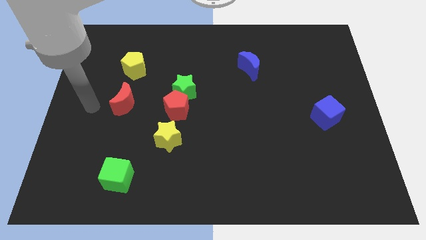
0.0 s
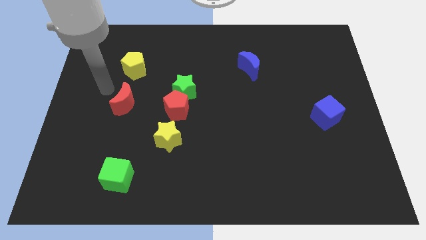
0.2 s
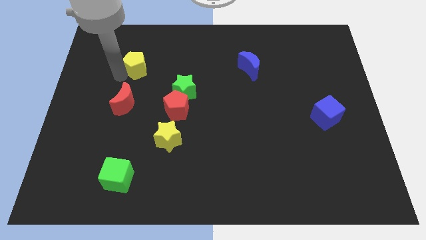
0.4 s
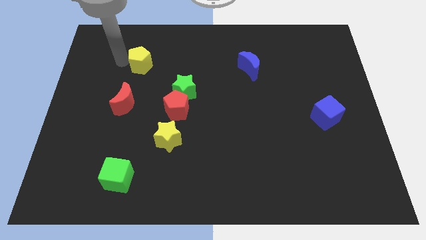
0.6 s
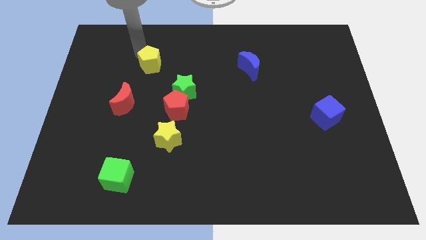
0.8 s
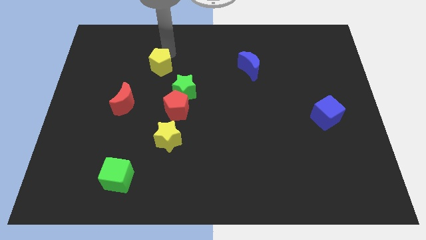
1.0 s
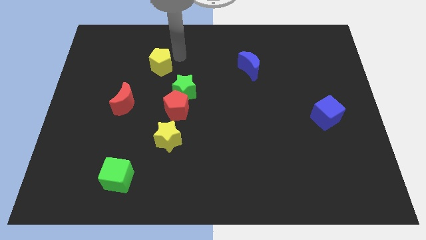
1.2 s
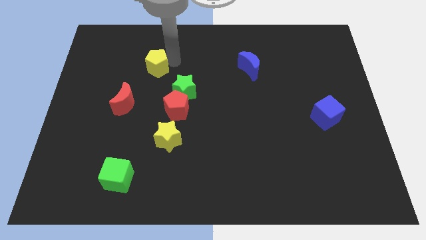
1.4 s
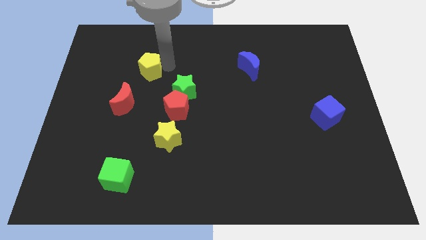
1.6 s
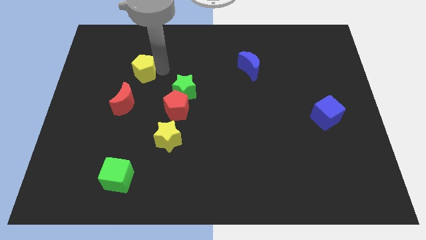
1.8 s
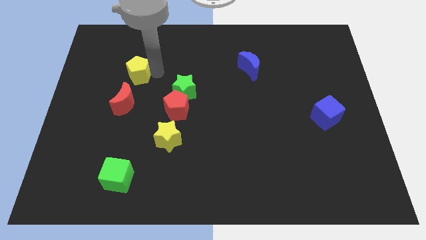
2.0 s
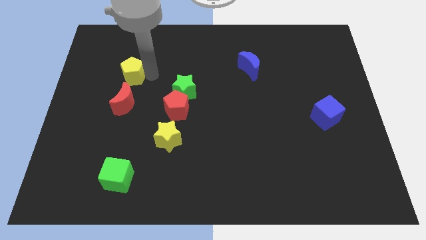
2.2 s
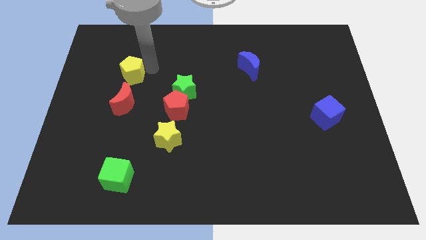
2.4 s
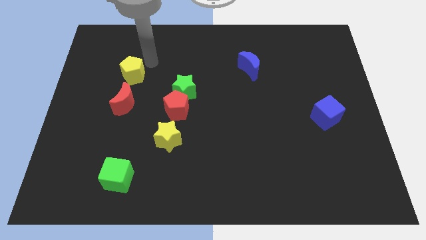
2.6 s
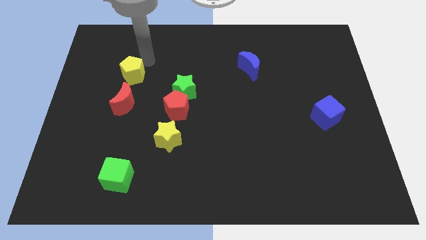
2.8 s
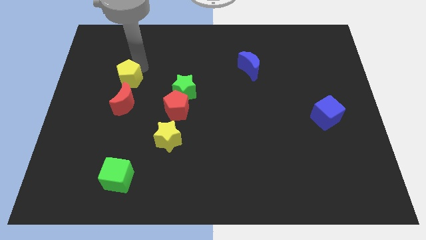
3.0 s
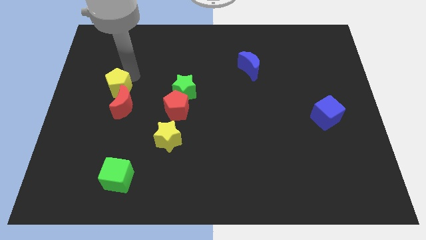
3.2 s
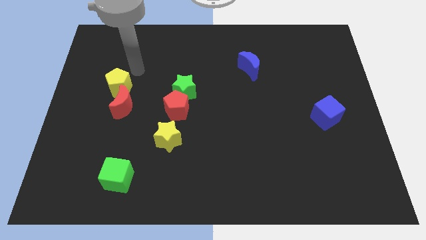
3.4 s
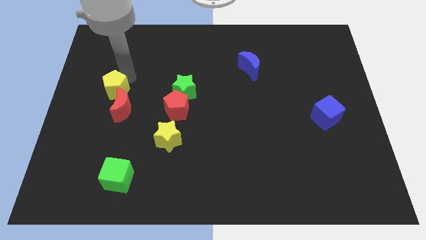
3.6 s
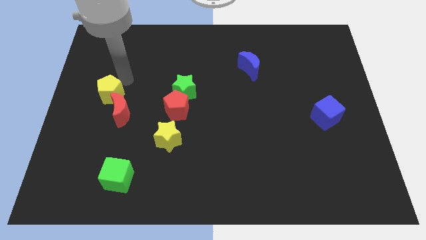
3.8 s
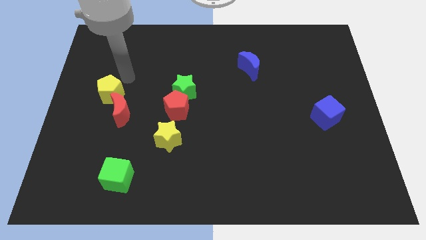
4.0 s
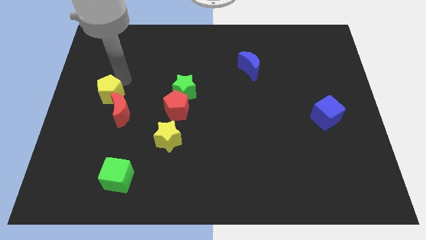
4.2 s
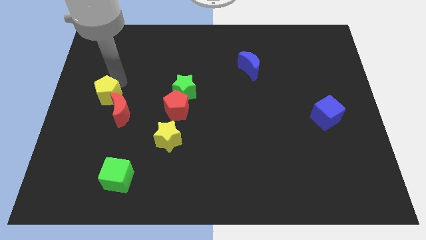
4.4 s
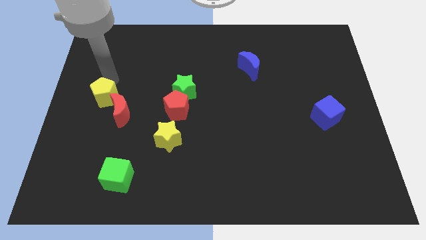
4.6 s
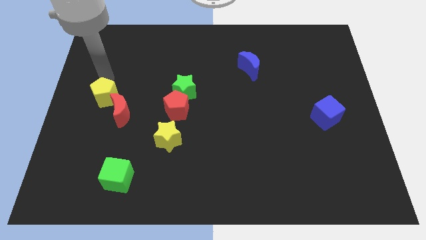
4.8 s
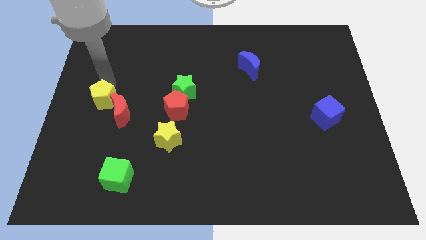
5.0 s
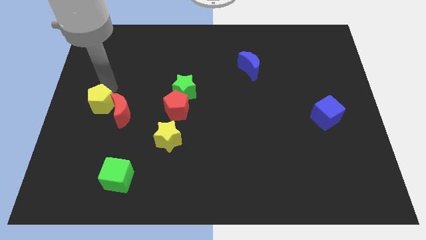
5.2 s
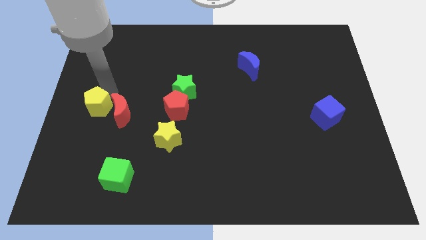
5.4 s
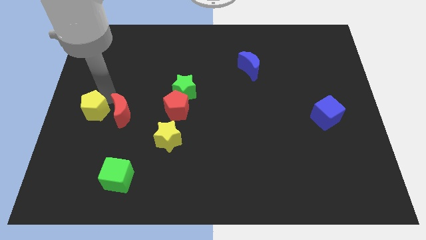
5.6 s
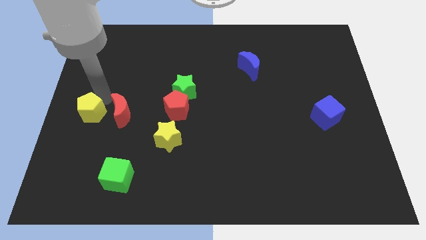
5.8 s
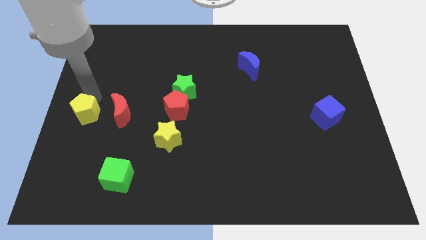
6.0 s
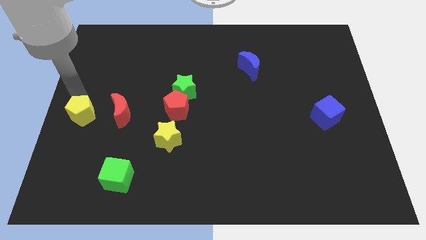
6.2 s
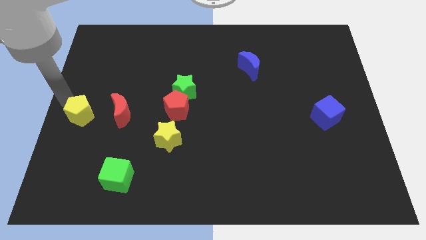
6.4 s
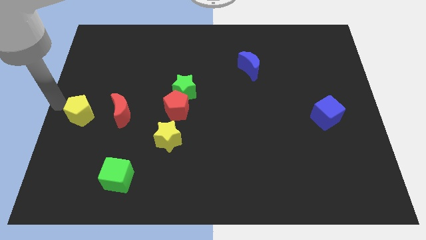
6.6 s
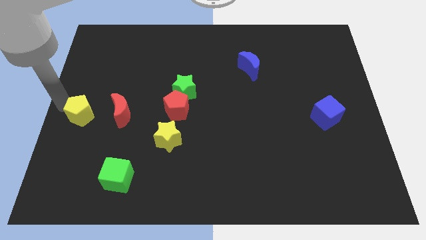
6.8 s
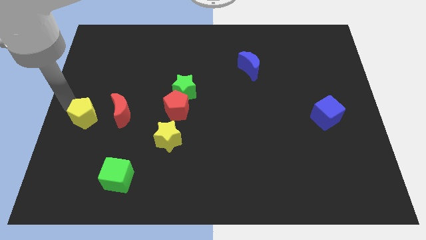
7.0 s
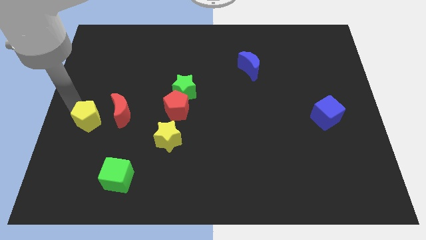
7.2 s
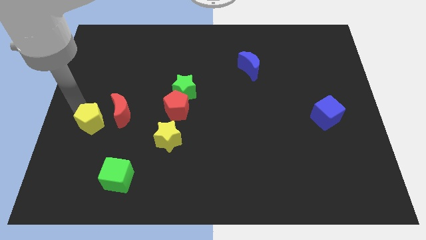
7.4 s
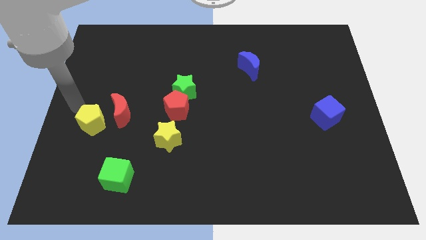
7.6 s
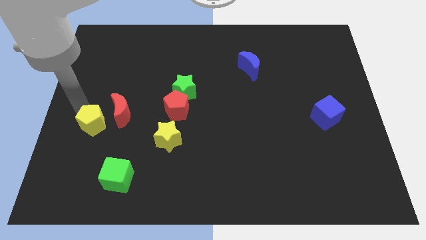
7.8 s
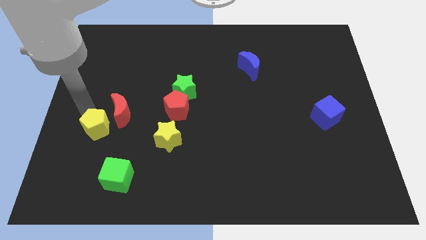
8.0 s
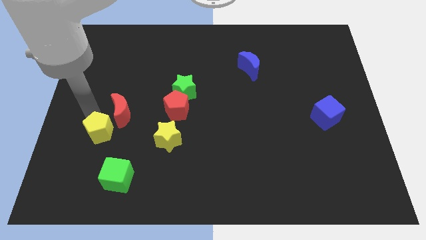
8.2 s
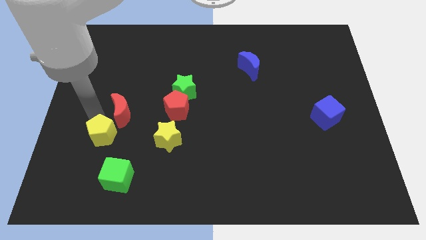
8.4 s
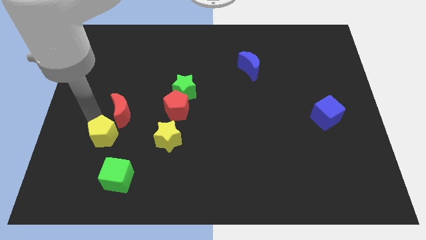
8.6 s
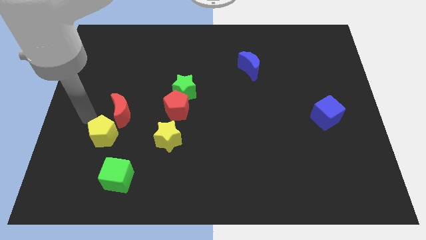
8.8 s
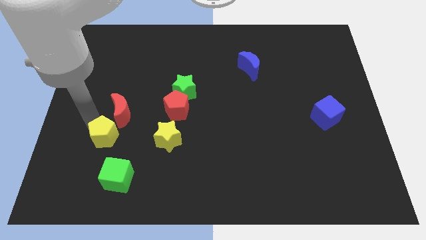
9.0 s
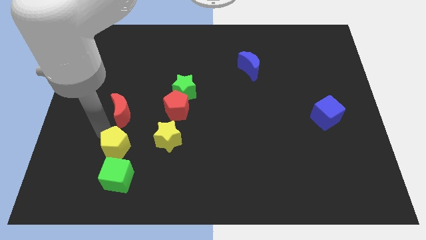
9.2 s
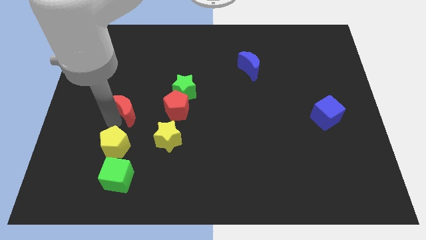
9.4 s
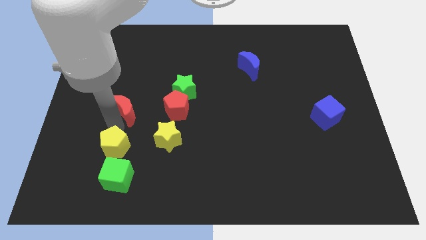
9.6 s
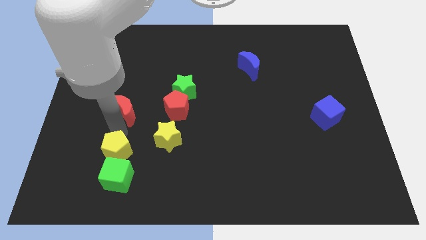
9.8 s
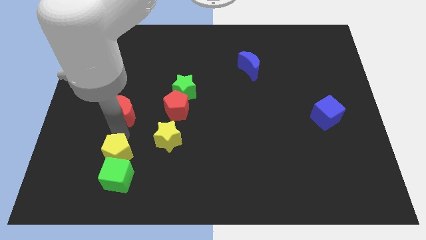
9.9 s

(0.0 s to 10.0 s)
put the yellow pentagon next to the green cube

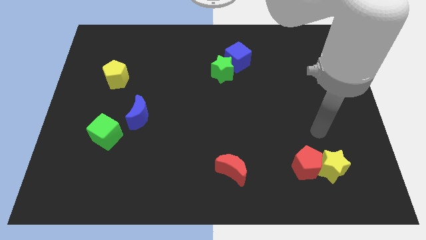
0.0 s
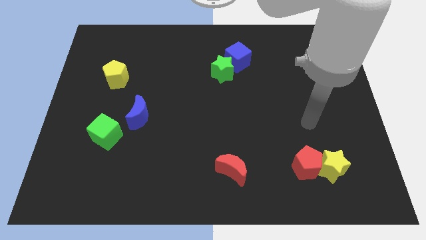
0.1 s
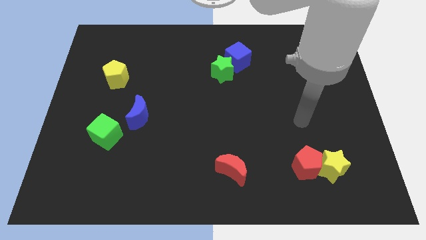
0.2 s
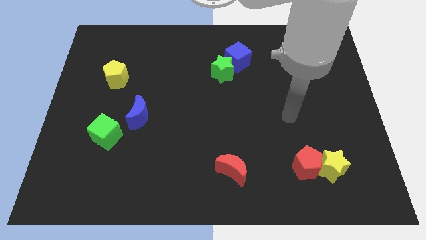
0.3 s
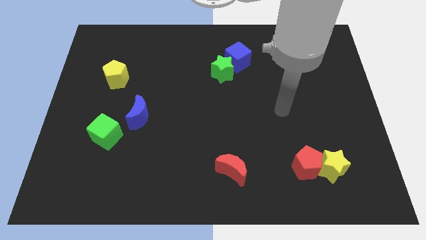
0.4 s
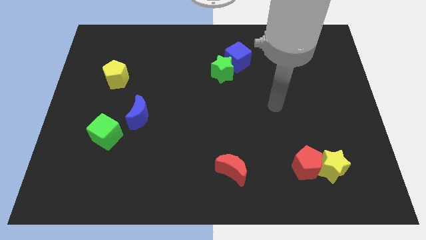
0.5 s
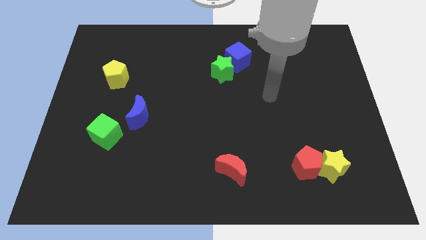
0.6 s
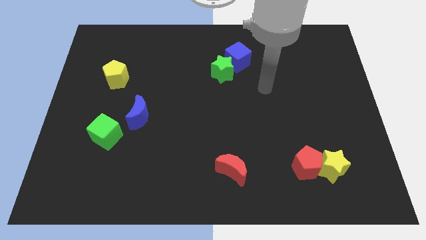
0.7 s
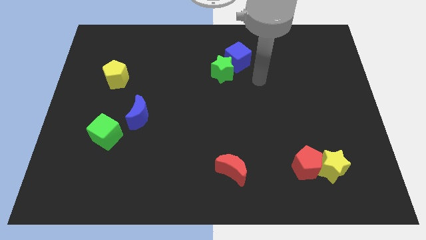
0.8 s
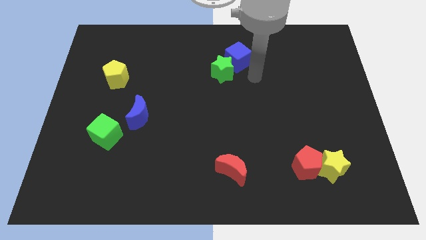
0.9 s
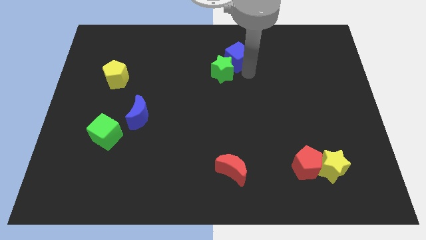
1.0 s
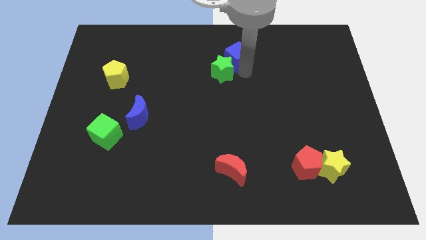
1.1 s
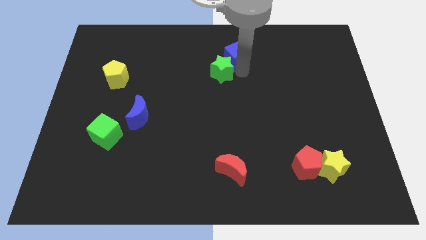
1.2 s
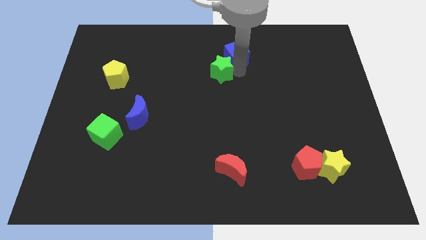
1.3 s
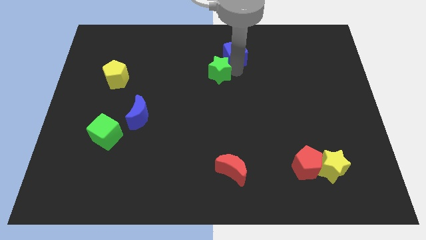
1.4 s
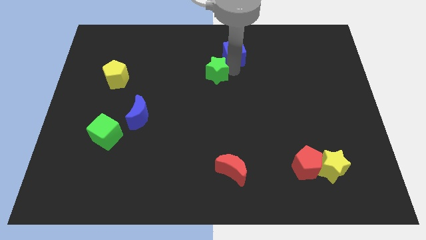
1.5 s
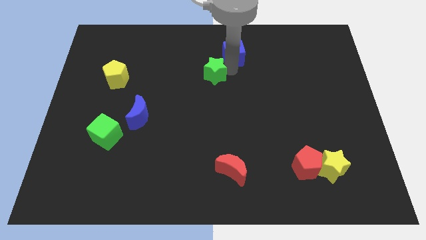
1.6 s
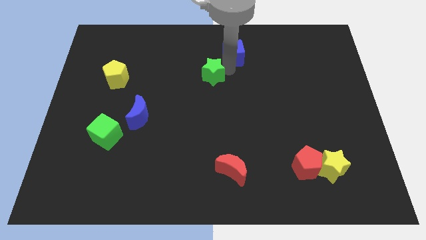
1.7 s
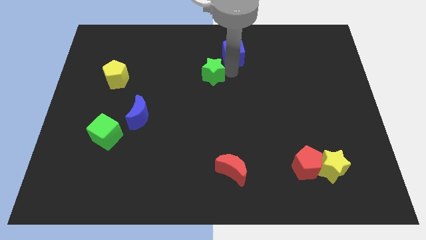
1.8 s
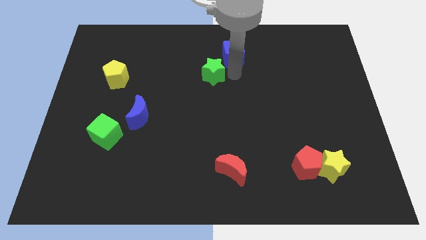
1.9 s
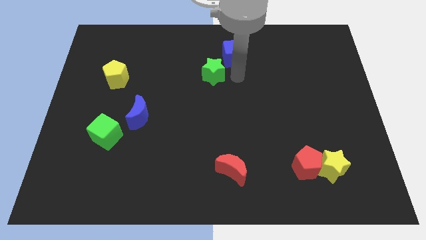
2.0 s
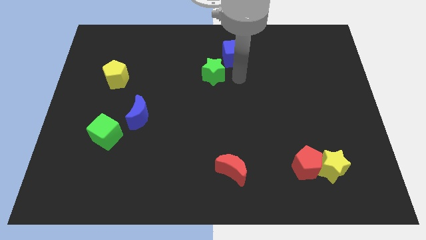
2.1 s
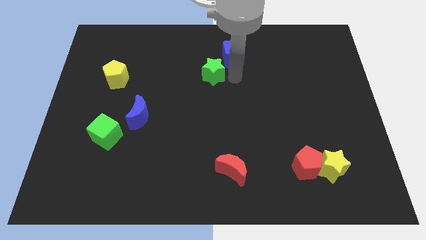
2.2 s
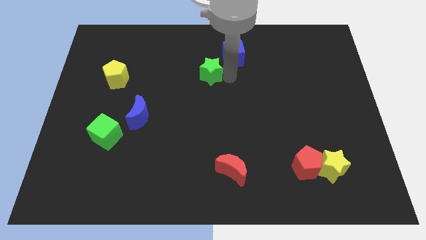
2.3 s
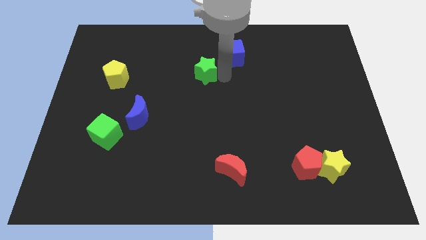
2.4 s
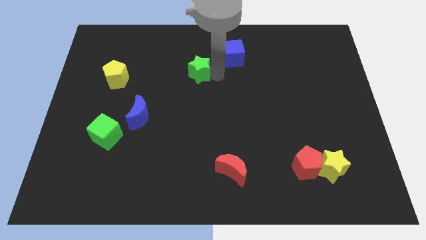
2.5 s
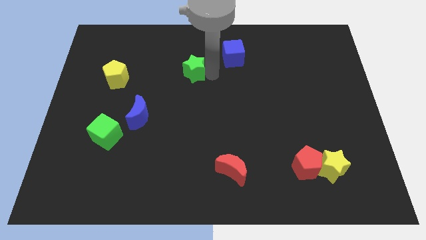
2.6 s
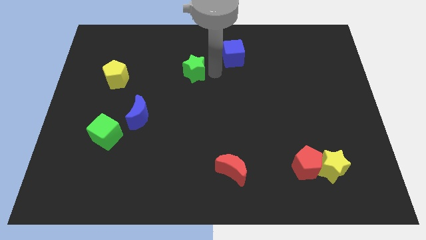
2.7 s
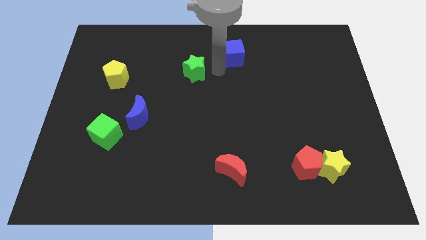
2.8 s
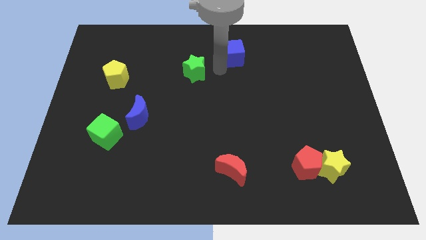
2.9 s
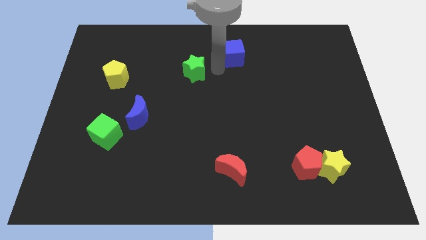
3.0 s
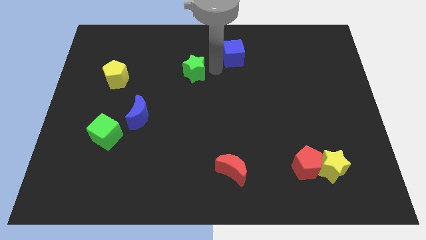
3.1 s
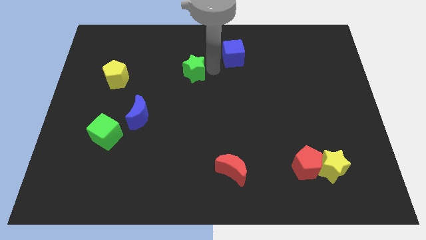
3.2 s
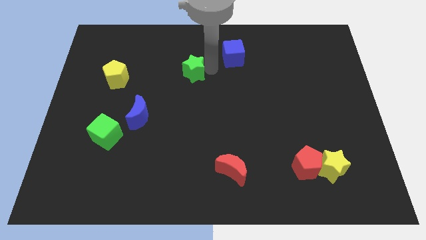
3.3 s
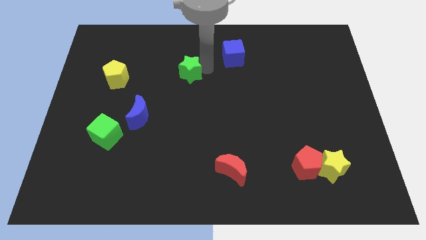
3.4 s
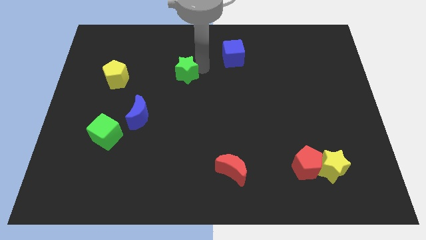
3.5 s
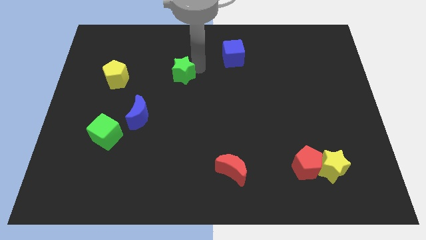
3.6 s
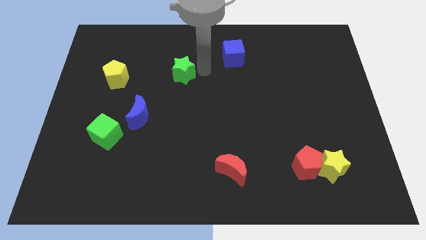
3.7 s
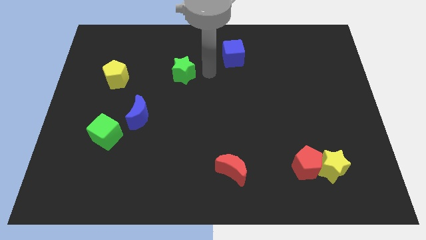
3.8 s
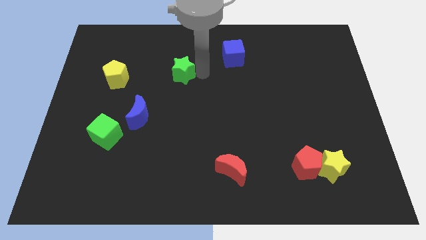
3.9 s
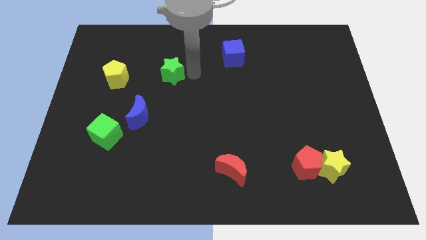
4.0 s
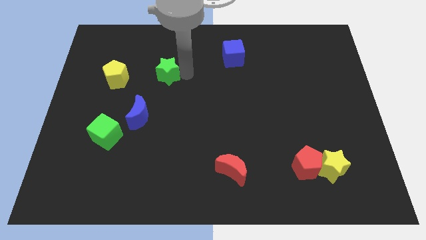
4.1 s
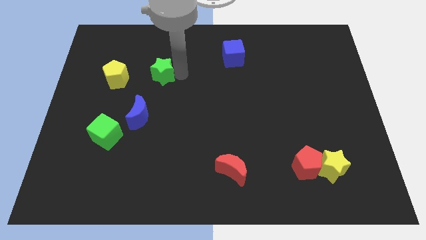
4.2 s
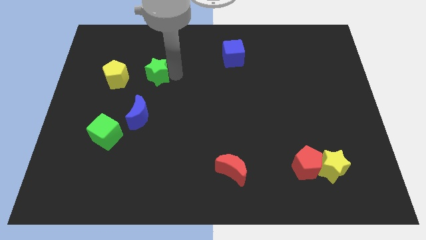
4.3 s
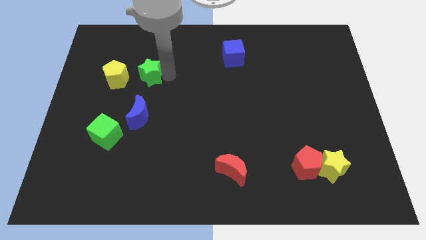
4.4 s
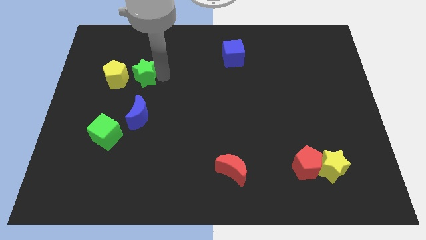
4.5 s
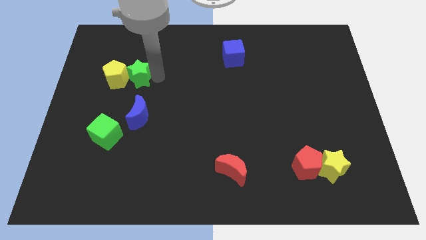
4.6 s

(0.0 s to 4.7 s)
move the green star towards the yellow pentagon
